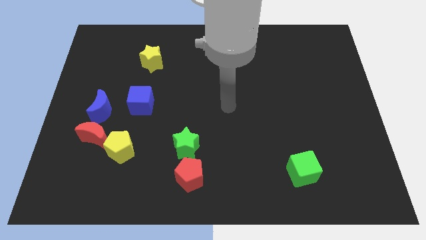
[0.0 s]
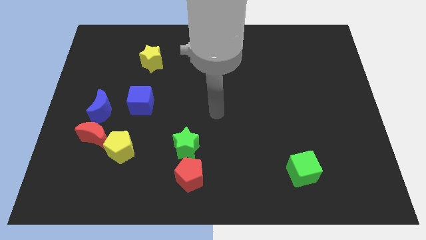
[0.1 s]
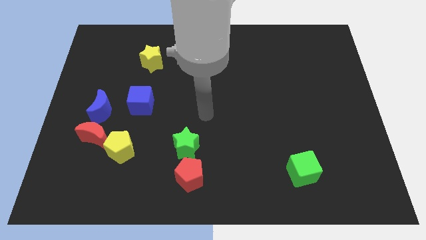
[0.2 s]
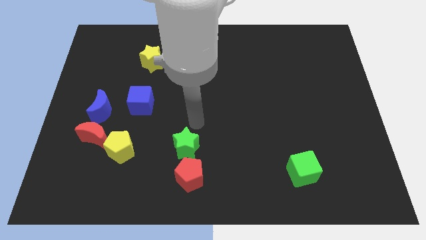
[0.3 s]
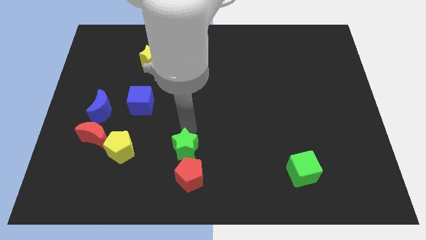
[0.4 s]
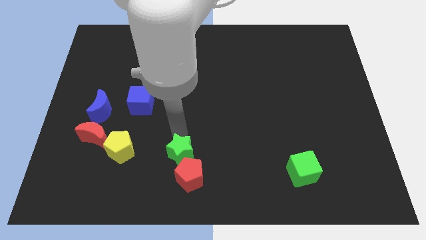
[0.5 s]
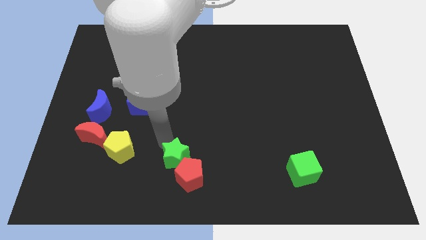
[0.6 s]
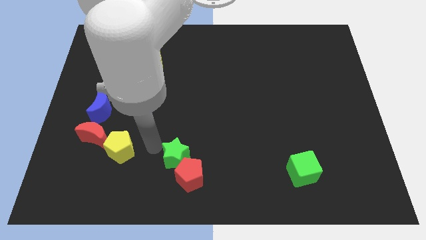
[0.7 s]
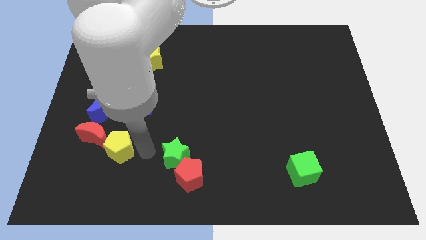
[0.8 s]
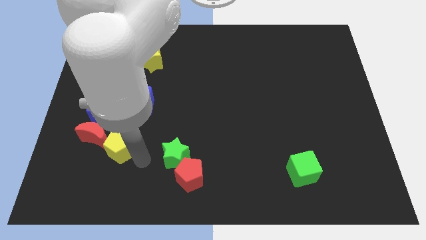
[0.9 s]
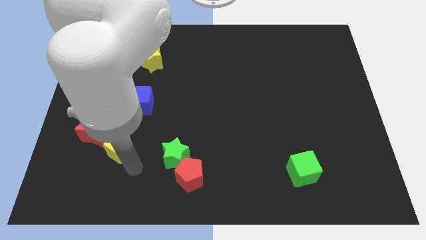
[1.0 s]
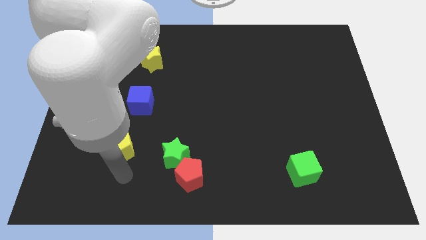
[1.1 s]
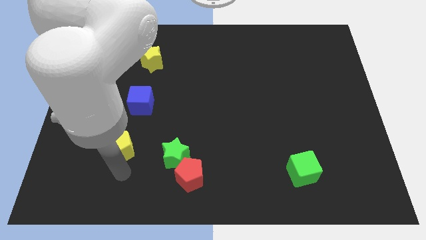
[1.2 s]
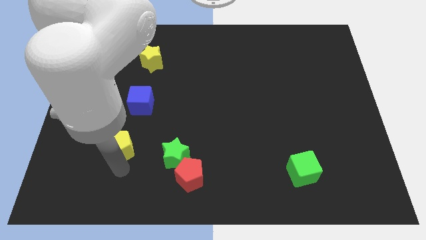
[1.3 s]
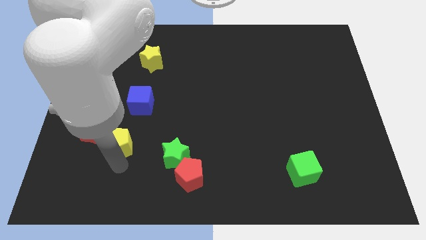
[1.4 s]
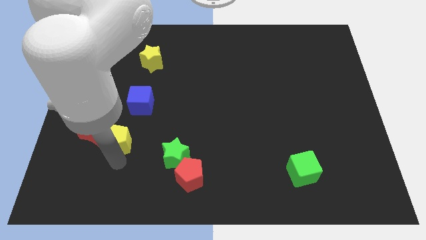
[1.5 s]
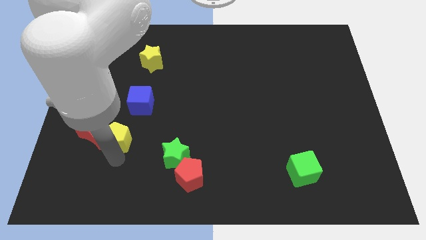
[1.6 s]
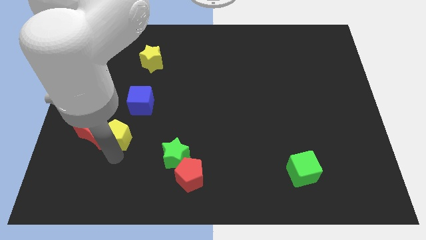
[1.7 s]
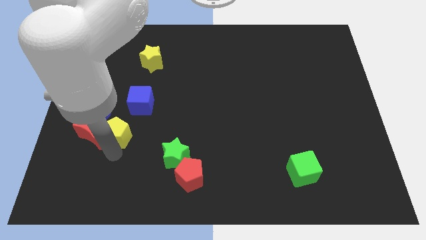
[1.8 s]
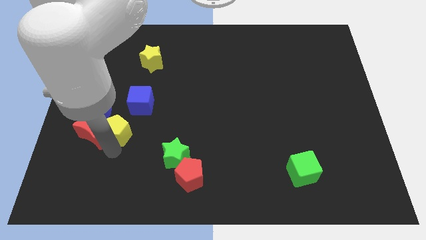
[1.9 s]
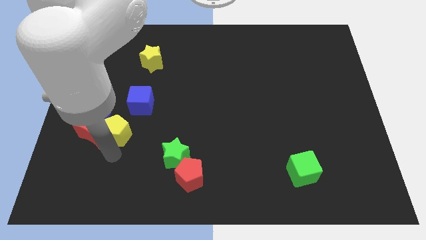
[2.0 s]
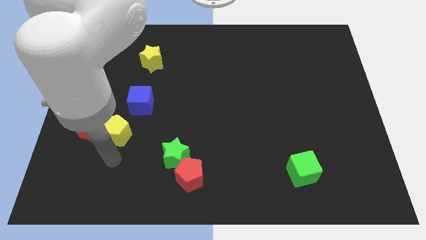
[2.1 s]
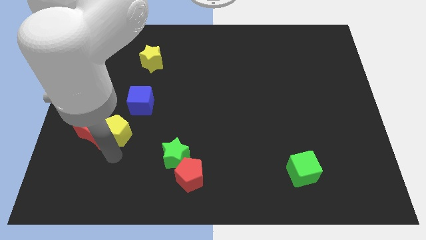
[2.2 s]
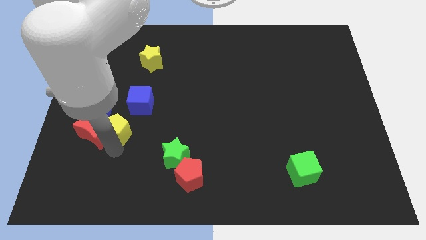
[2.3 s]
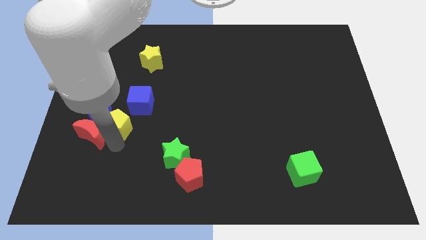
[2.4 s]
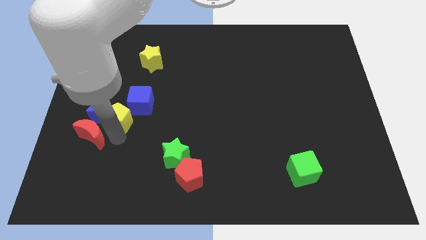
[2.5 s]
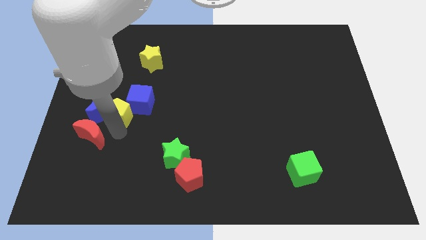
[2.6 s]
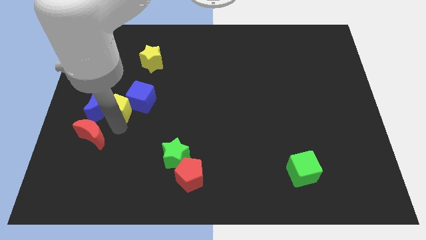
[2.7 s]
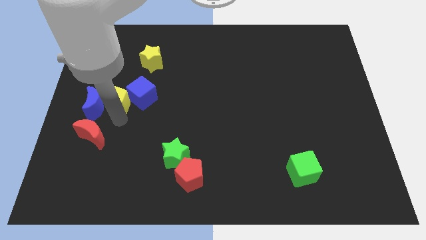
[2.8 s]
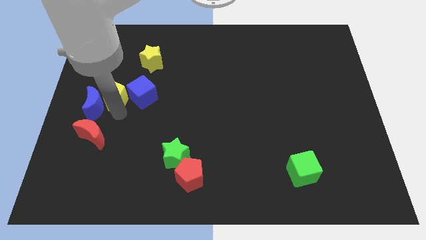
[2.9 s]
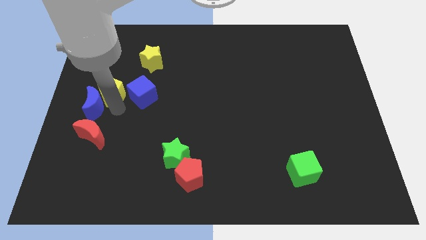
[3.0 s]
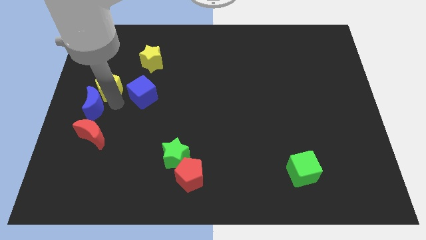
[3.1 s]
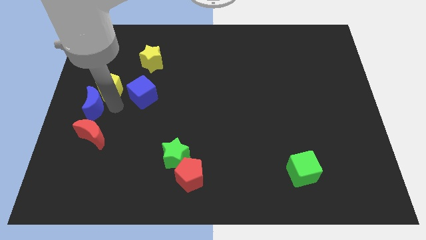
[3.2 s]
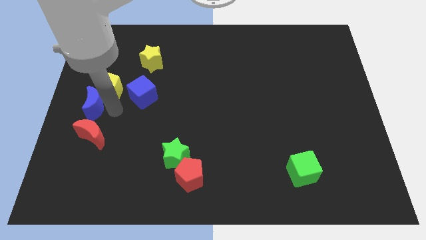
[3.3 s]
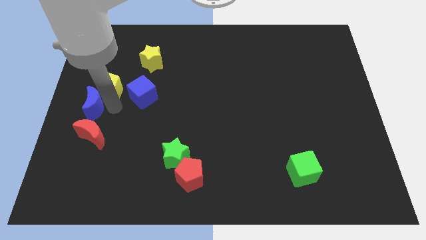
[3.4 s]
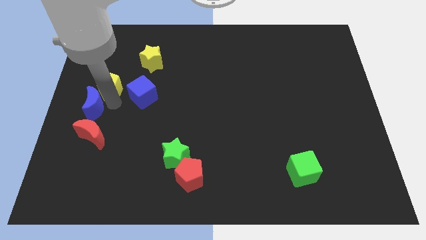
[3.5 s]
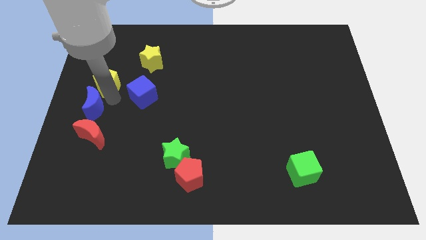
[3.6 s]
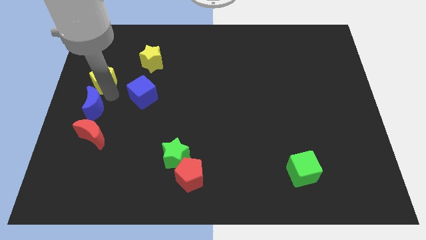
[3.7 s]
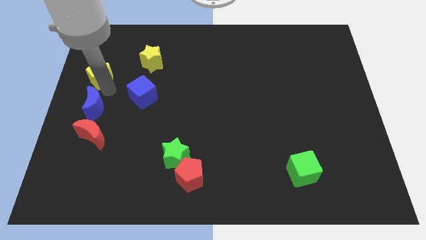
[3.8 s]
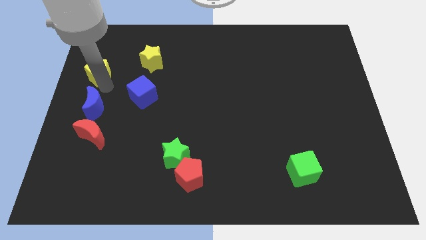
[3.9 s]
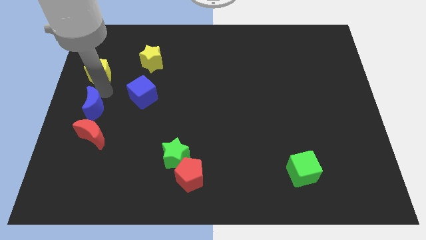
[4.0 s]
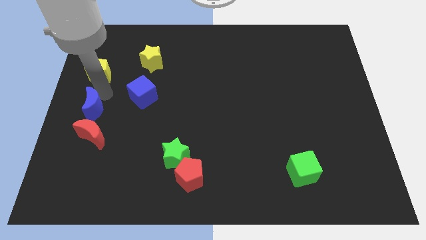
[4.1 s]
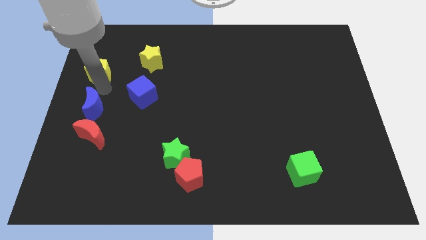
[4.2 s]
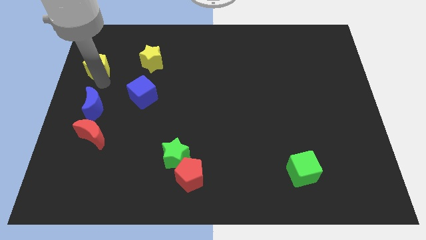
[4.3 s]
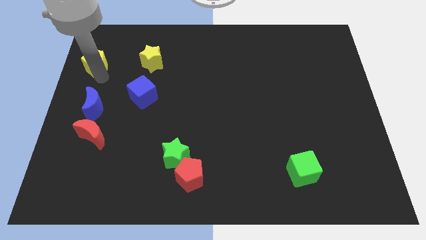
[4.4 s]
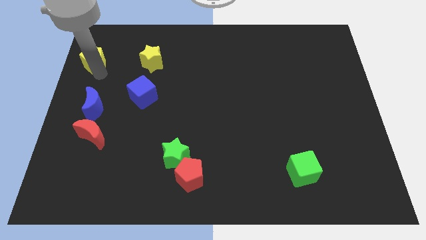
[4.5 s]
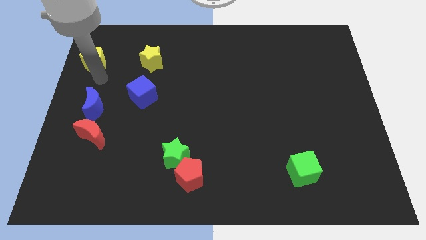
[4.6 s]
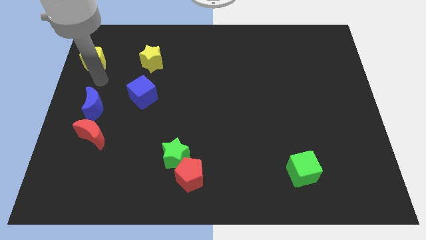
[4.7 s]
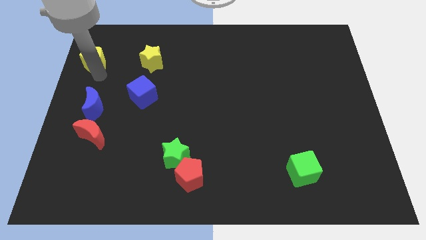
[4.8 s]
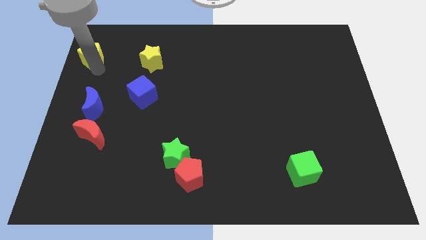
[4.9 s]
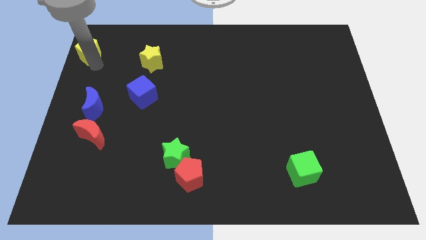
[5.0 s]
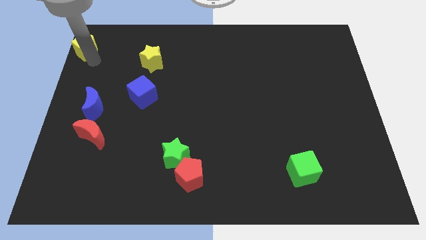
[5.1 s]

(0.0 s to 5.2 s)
move the yellow pentagon to the top left of the board

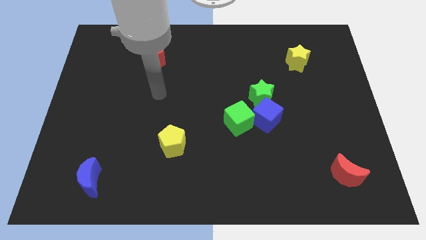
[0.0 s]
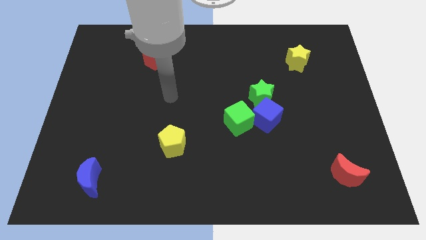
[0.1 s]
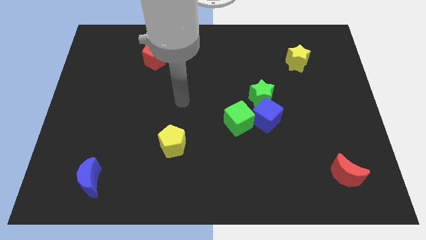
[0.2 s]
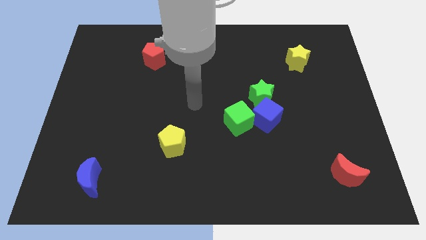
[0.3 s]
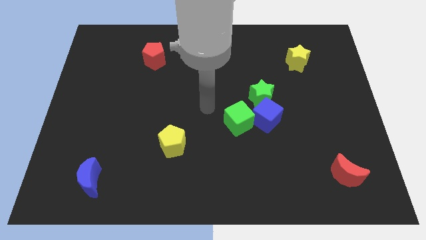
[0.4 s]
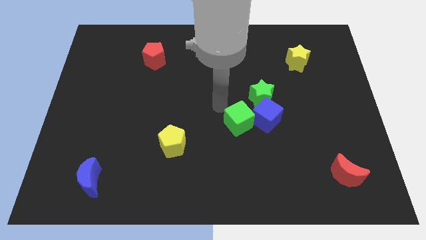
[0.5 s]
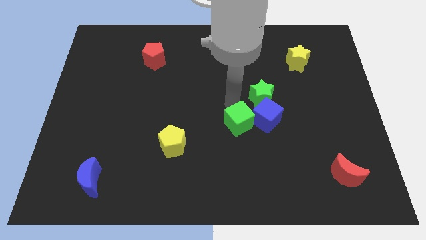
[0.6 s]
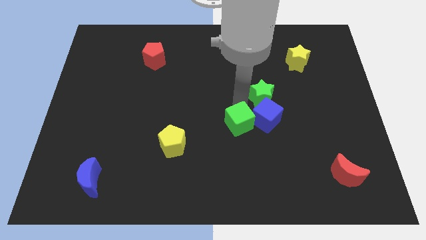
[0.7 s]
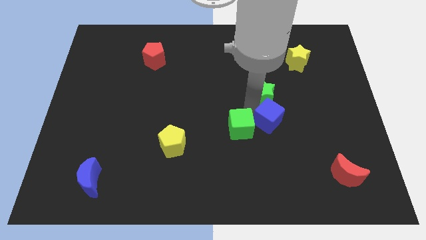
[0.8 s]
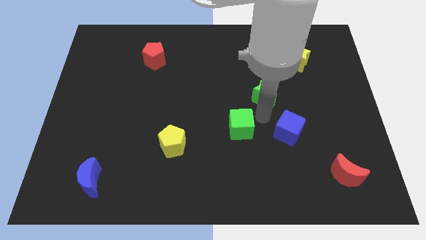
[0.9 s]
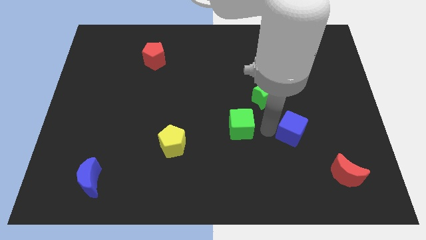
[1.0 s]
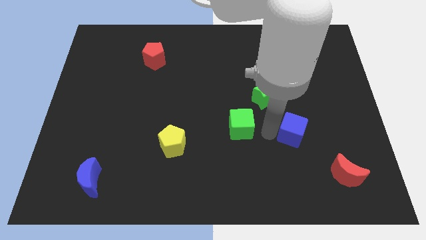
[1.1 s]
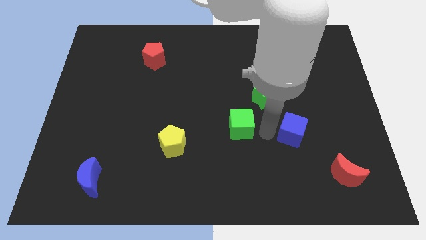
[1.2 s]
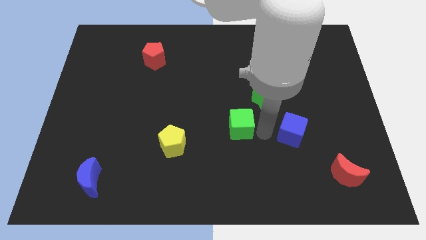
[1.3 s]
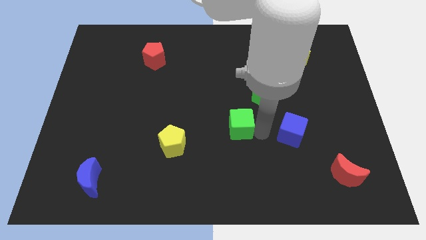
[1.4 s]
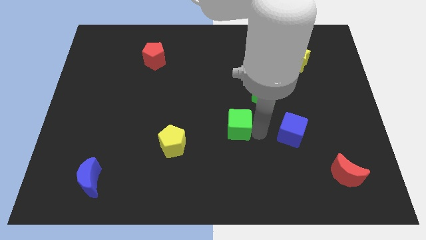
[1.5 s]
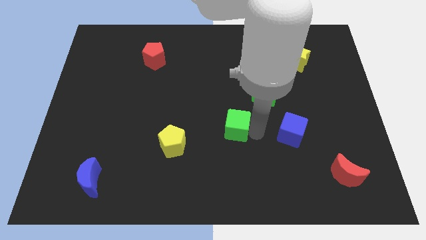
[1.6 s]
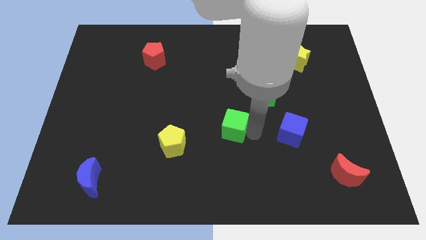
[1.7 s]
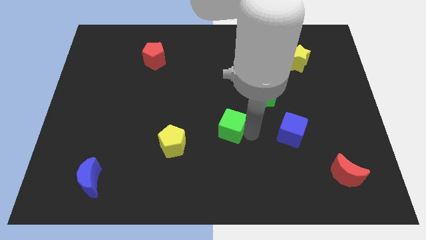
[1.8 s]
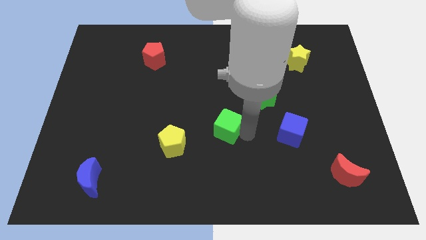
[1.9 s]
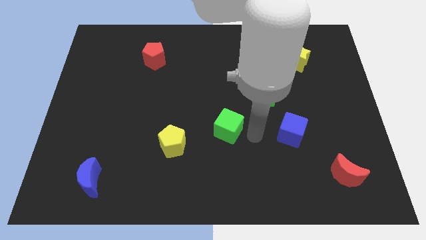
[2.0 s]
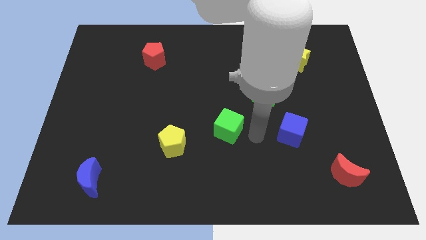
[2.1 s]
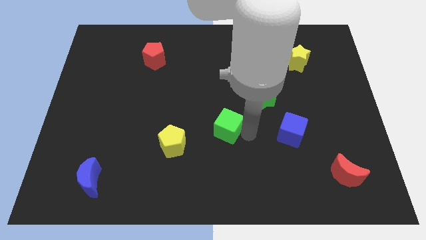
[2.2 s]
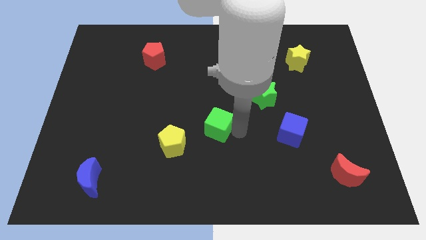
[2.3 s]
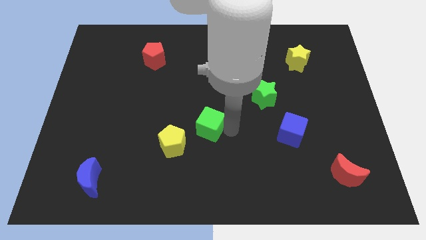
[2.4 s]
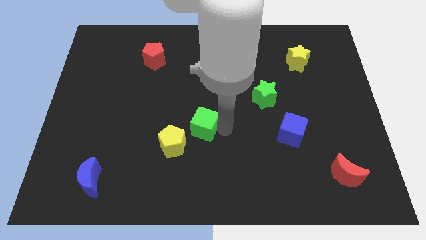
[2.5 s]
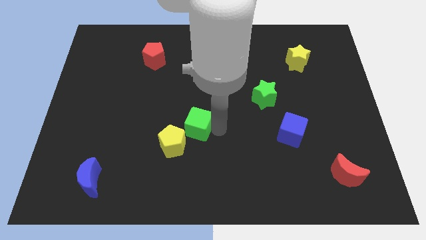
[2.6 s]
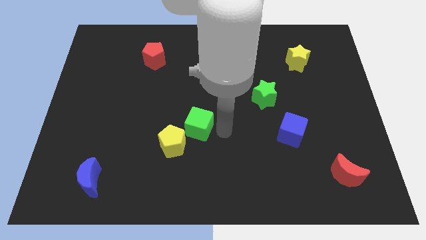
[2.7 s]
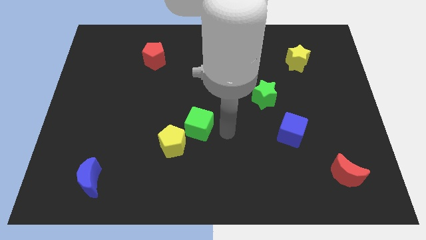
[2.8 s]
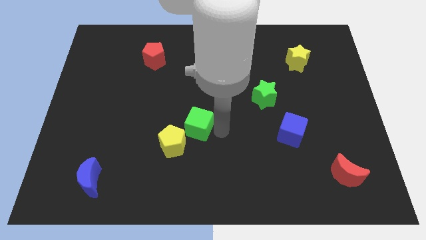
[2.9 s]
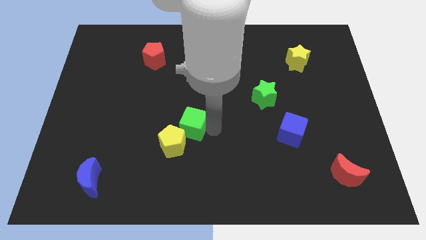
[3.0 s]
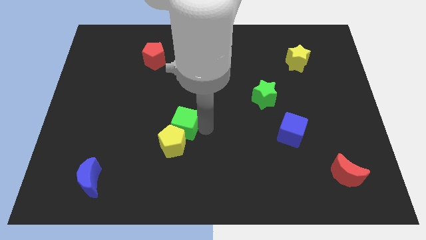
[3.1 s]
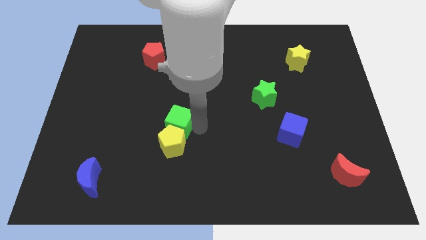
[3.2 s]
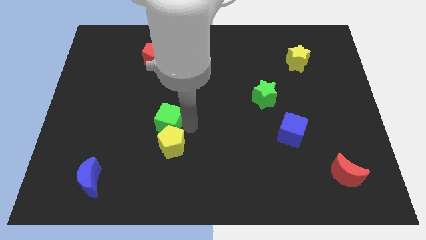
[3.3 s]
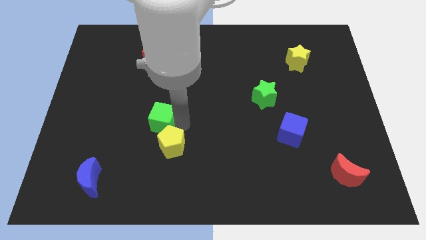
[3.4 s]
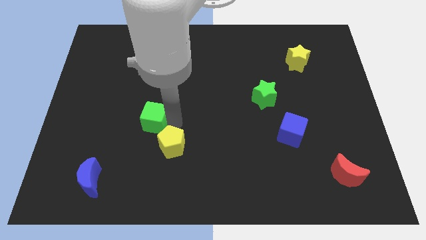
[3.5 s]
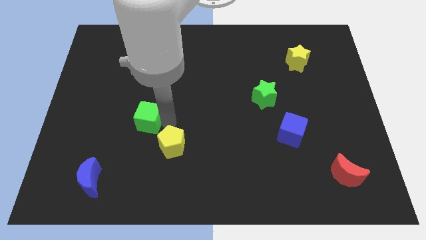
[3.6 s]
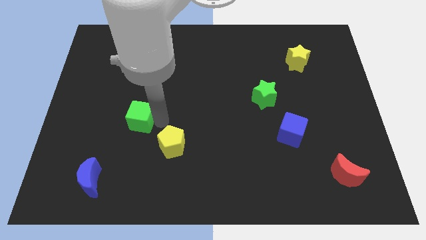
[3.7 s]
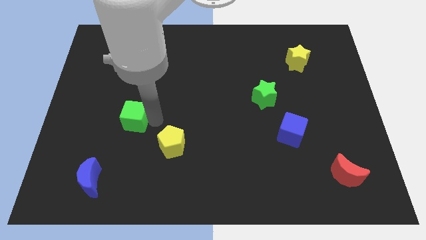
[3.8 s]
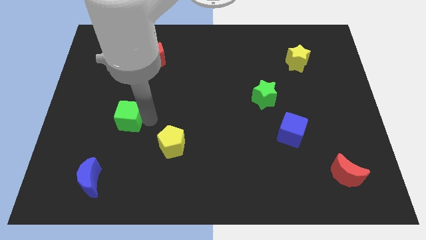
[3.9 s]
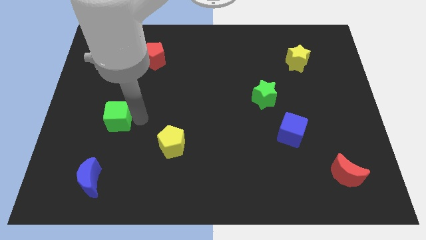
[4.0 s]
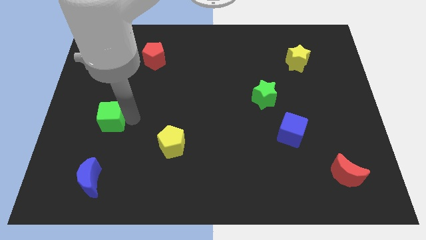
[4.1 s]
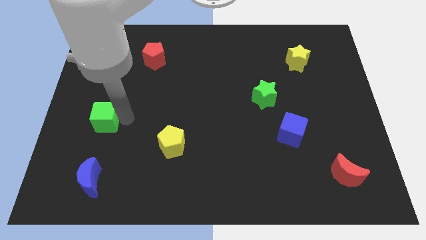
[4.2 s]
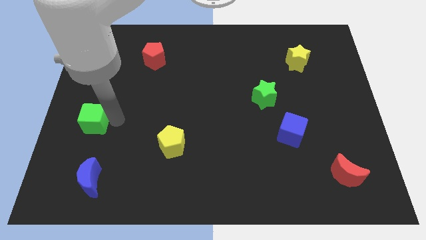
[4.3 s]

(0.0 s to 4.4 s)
push the green cube to the left side of the board
